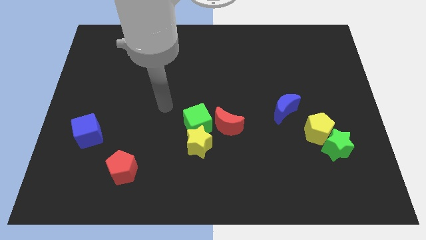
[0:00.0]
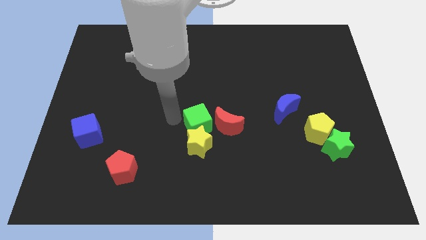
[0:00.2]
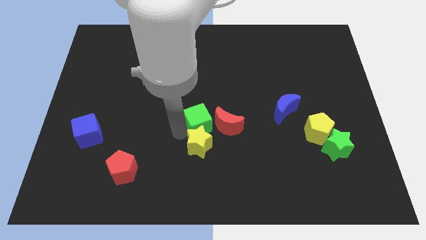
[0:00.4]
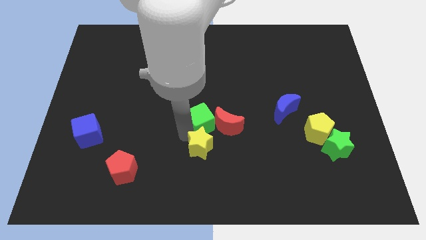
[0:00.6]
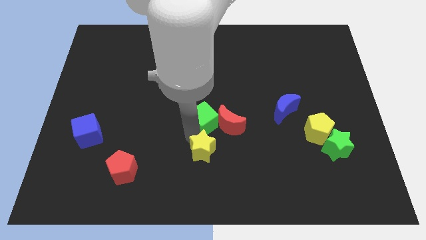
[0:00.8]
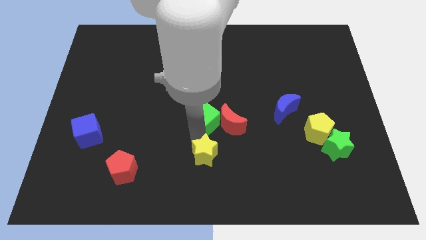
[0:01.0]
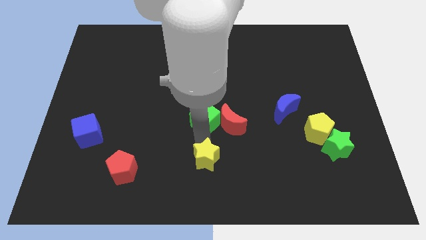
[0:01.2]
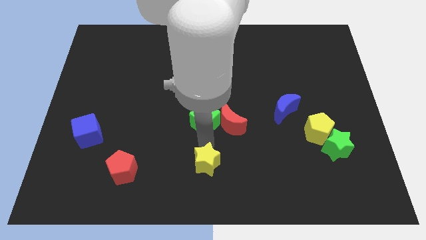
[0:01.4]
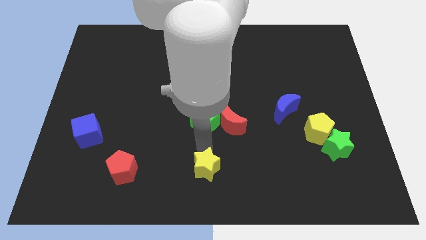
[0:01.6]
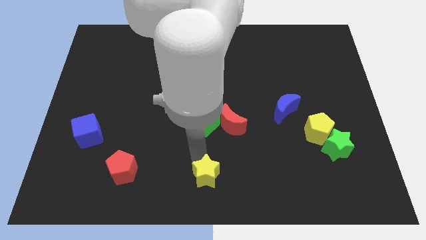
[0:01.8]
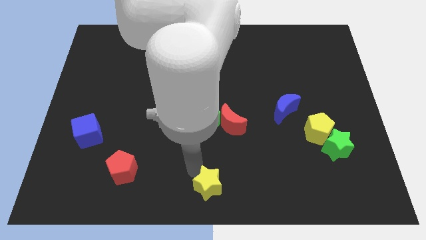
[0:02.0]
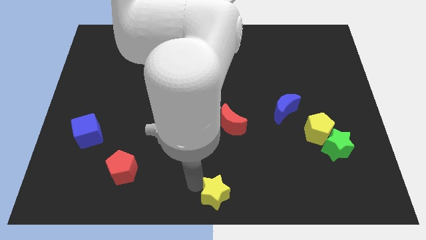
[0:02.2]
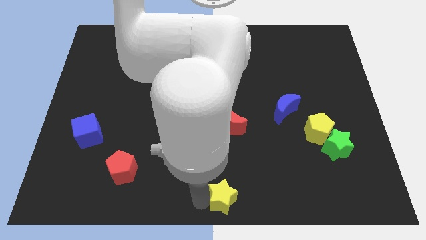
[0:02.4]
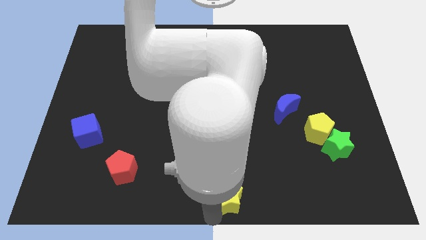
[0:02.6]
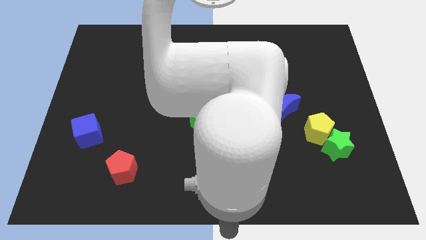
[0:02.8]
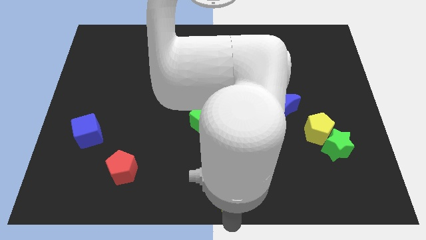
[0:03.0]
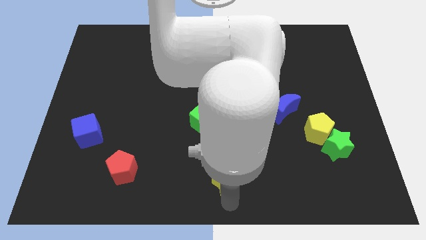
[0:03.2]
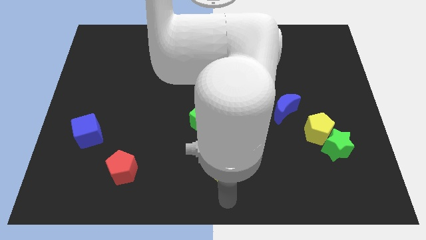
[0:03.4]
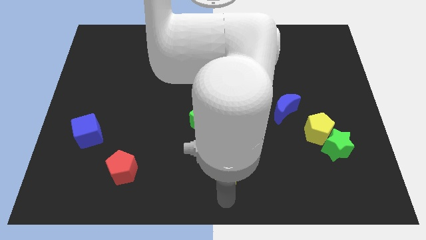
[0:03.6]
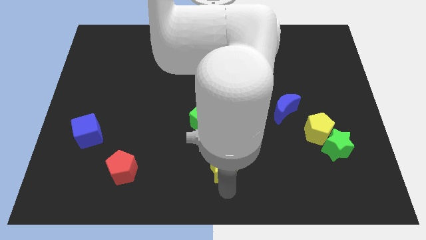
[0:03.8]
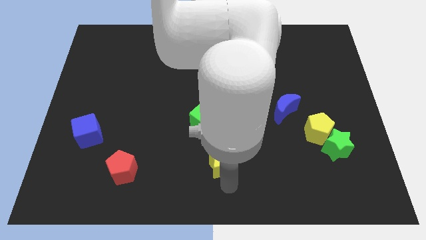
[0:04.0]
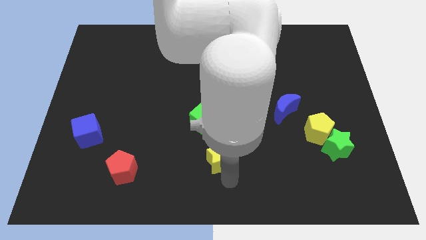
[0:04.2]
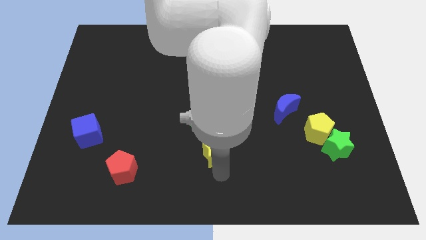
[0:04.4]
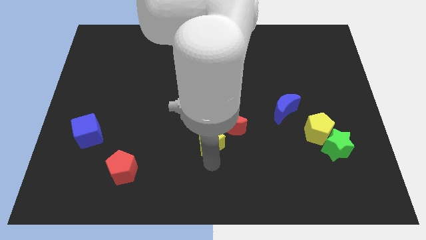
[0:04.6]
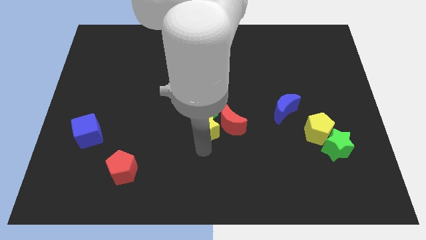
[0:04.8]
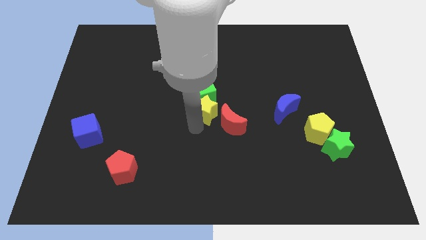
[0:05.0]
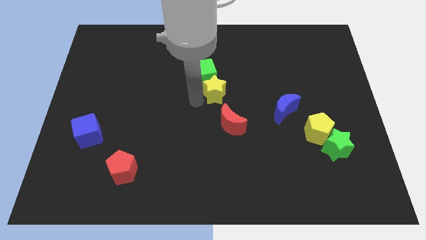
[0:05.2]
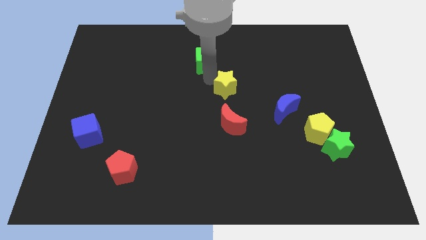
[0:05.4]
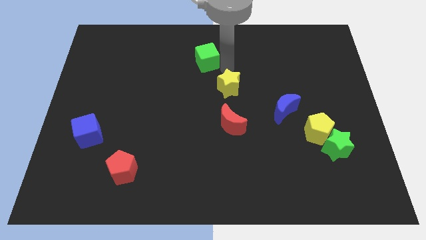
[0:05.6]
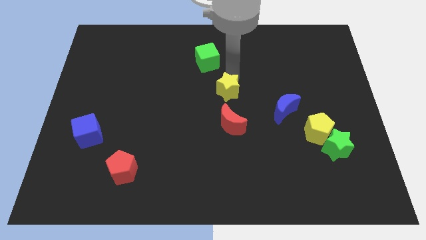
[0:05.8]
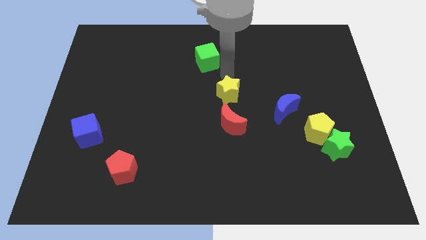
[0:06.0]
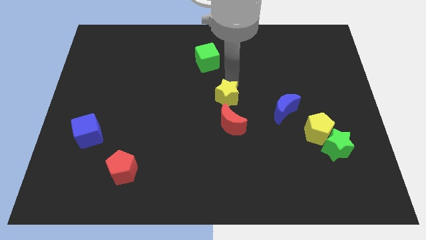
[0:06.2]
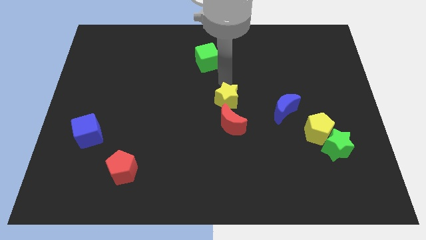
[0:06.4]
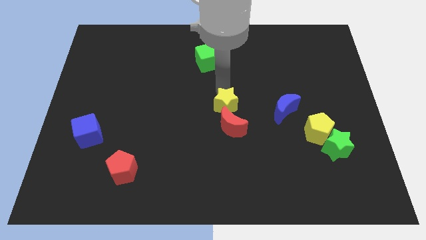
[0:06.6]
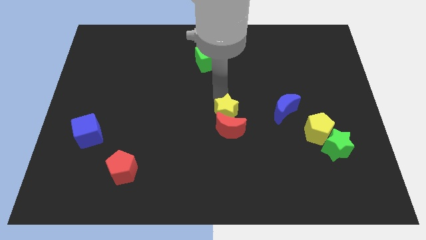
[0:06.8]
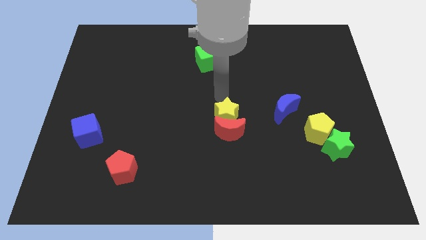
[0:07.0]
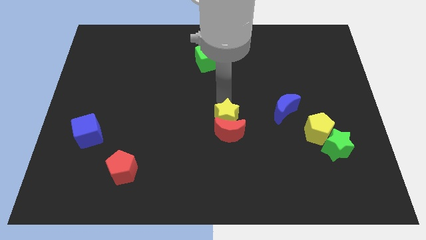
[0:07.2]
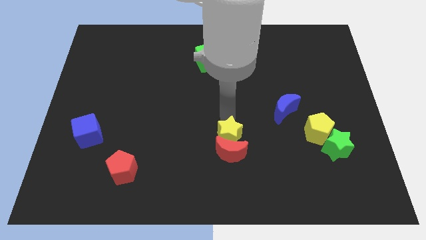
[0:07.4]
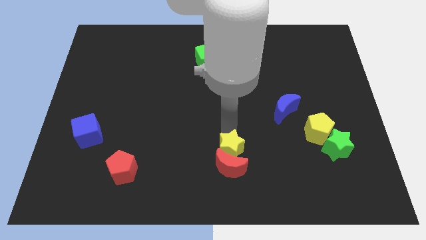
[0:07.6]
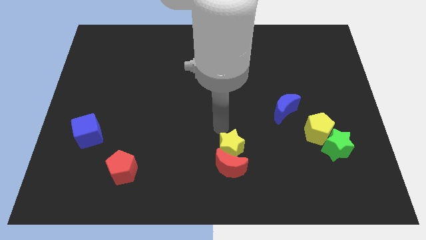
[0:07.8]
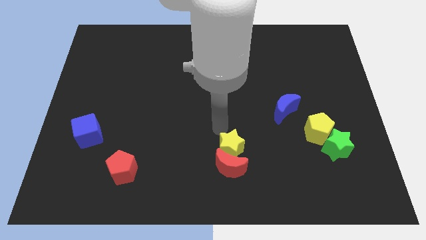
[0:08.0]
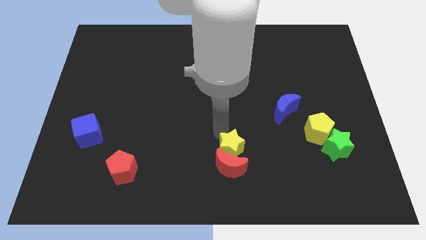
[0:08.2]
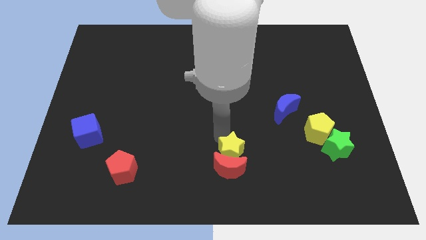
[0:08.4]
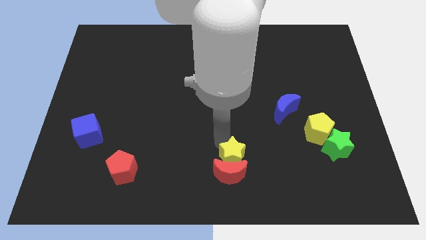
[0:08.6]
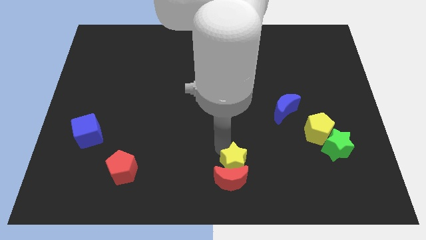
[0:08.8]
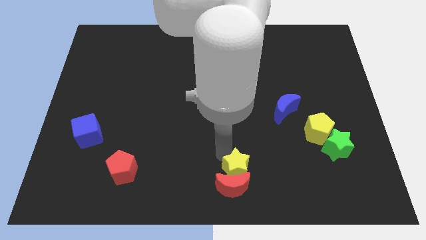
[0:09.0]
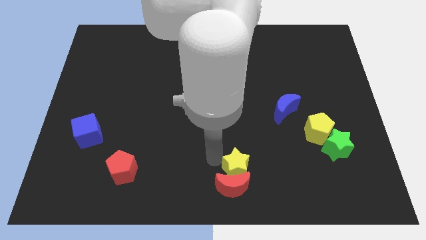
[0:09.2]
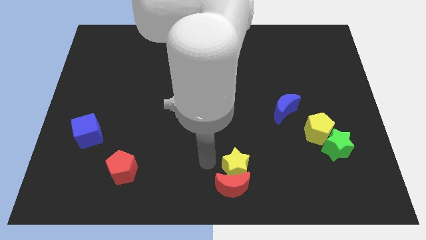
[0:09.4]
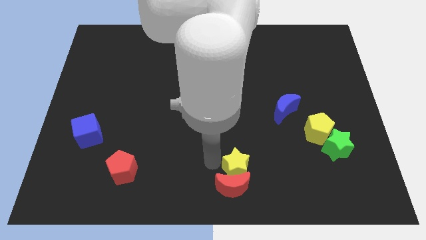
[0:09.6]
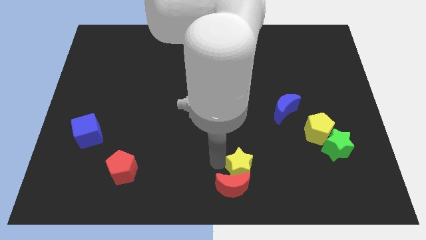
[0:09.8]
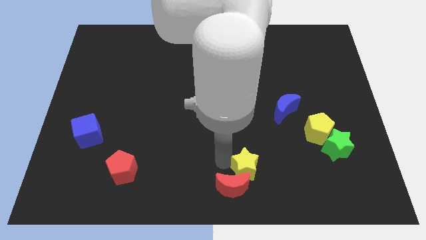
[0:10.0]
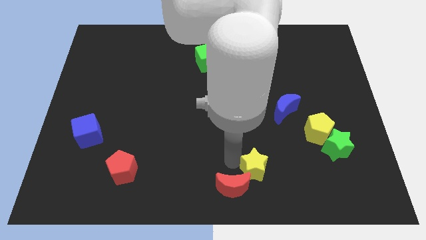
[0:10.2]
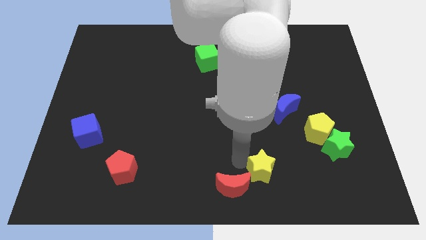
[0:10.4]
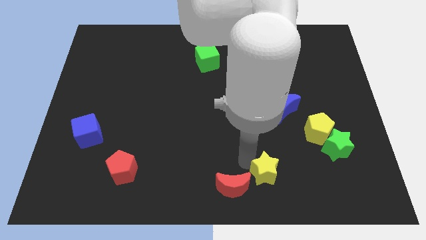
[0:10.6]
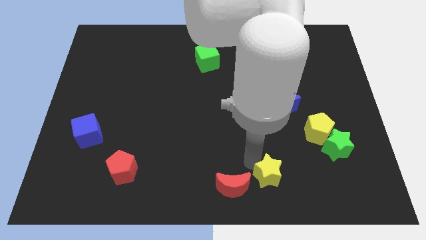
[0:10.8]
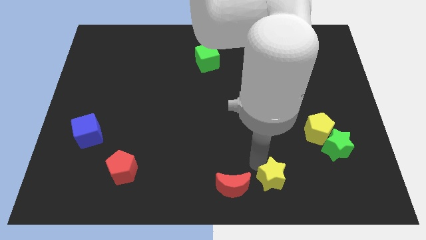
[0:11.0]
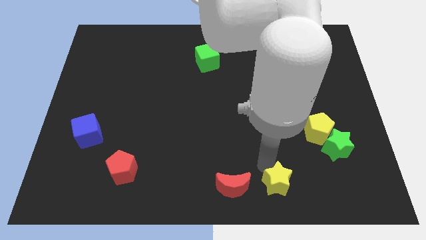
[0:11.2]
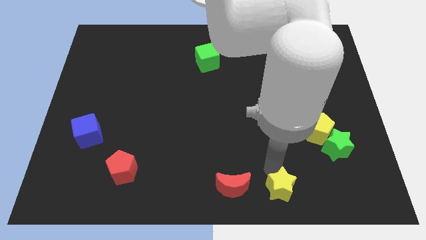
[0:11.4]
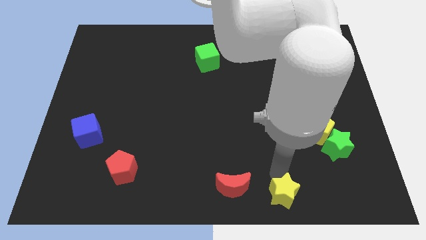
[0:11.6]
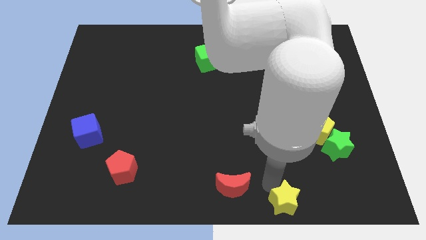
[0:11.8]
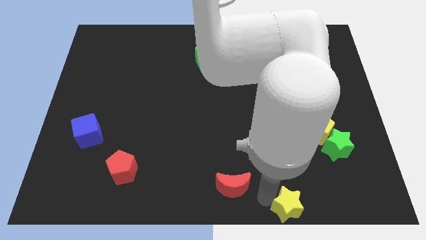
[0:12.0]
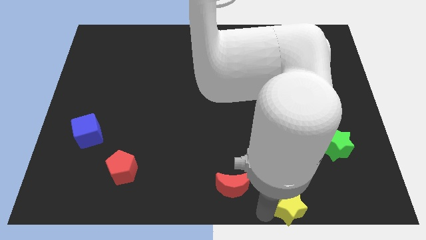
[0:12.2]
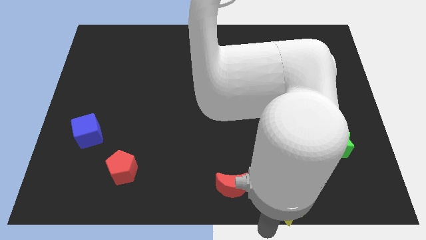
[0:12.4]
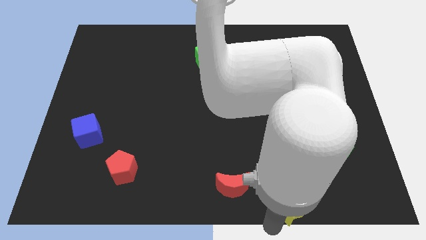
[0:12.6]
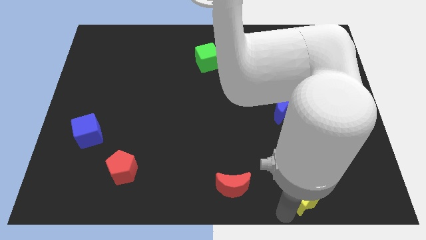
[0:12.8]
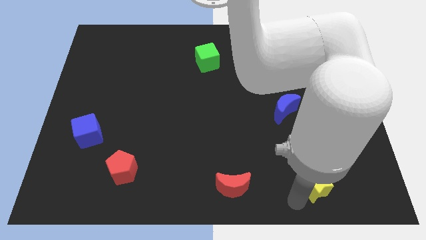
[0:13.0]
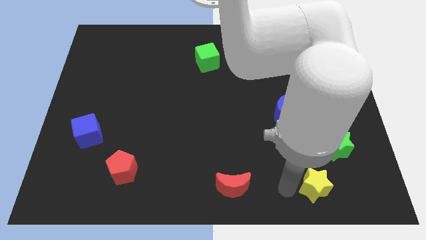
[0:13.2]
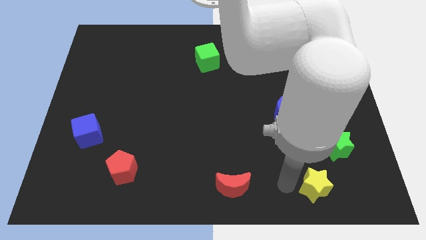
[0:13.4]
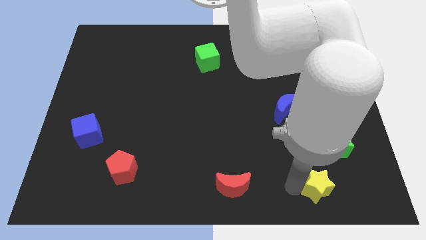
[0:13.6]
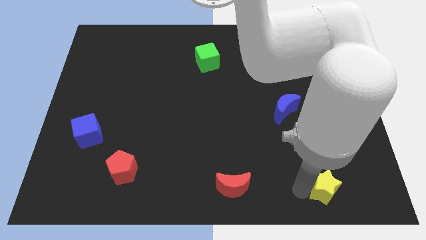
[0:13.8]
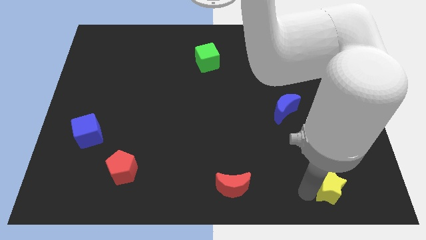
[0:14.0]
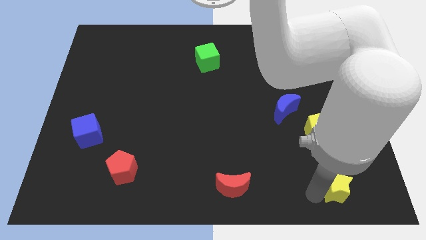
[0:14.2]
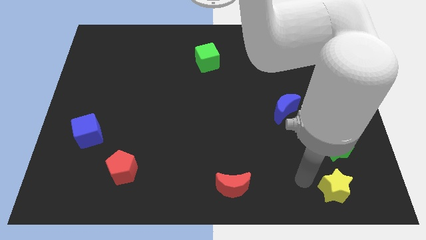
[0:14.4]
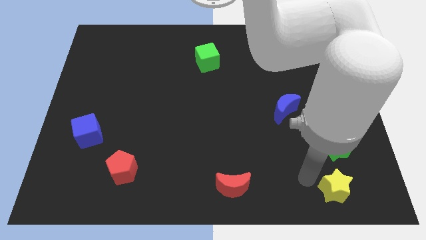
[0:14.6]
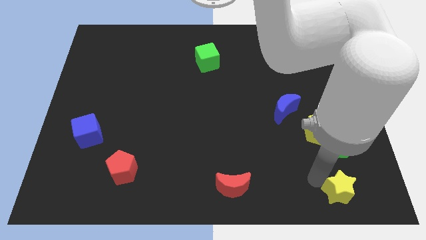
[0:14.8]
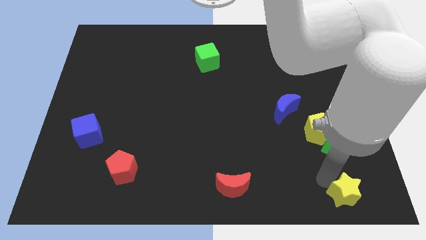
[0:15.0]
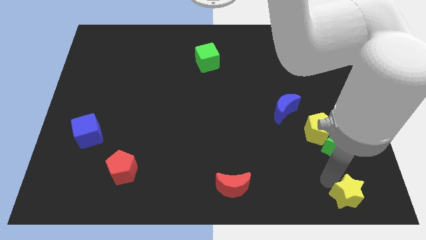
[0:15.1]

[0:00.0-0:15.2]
put the yellow star to the lower right corner
